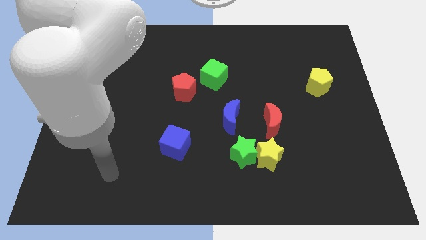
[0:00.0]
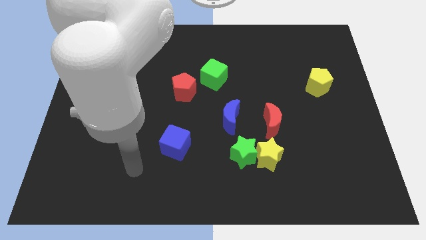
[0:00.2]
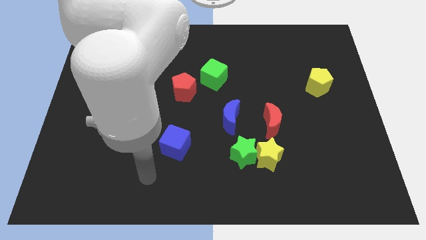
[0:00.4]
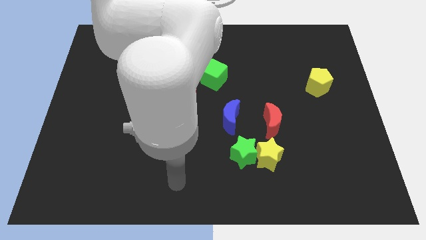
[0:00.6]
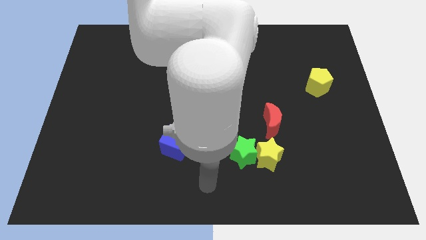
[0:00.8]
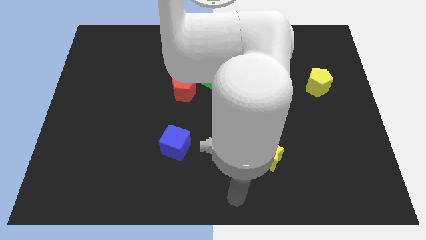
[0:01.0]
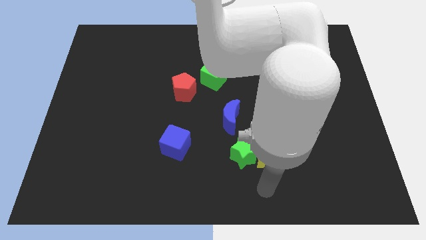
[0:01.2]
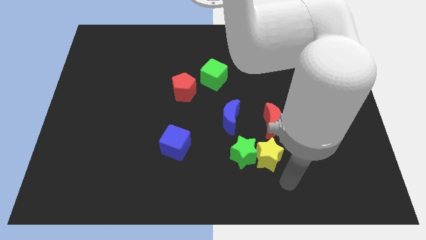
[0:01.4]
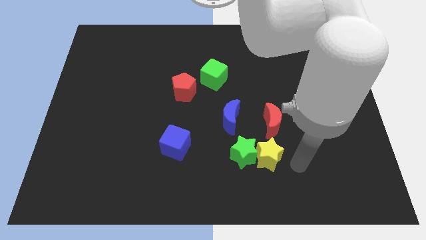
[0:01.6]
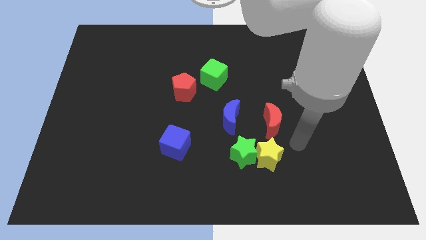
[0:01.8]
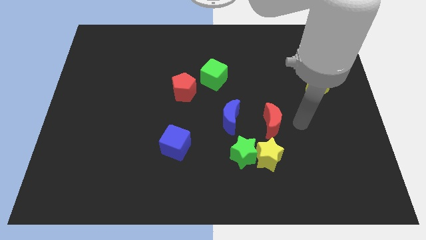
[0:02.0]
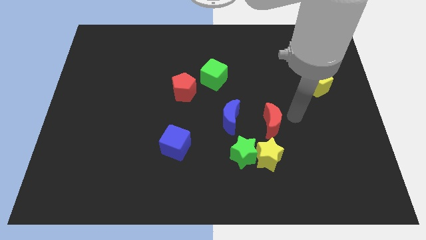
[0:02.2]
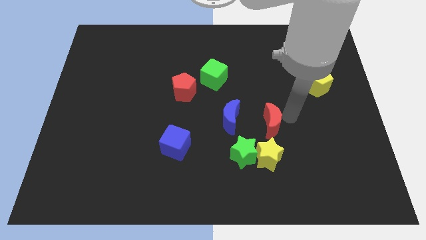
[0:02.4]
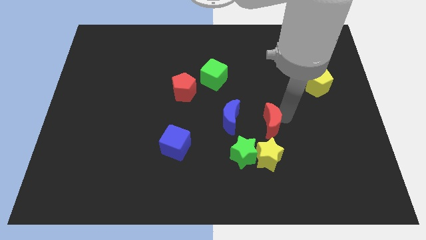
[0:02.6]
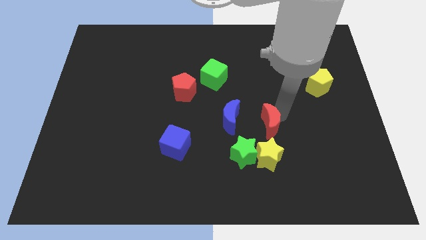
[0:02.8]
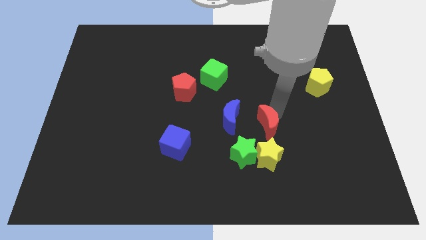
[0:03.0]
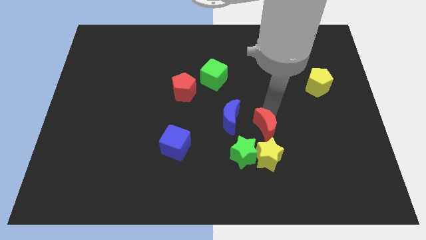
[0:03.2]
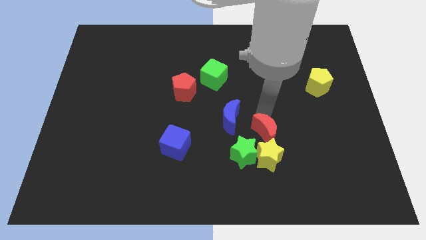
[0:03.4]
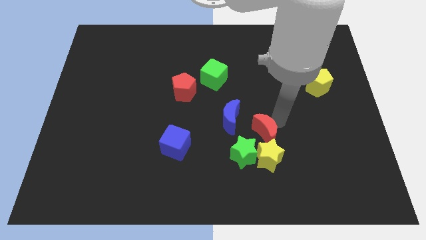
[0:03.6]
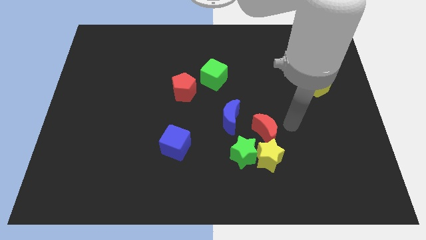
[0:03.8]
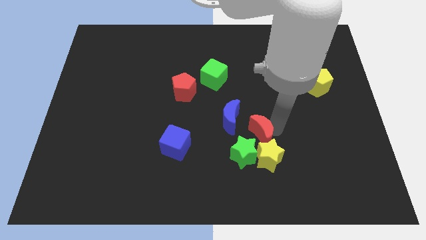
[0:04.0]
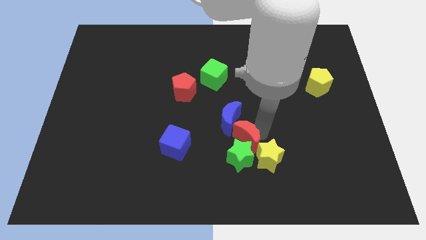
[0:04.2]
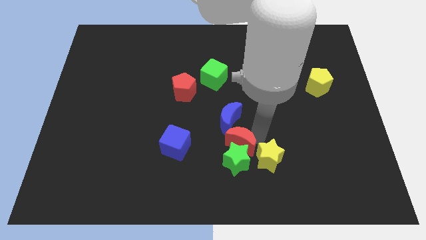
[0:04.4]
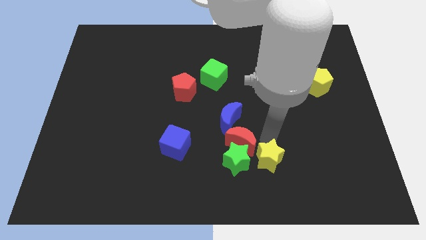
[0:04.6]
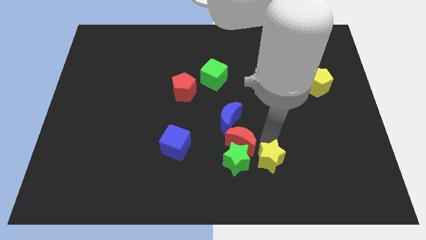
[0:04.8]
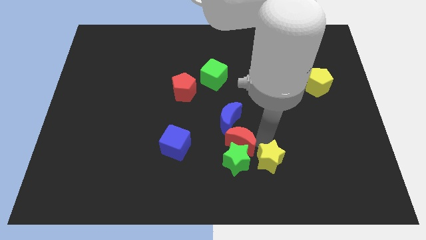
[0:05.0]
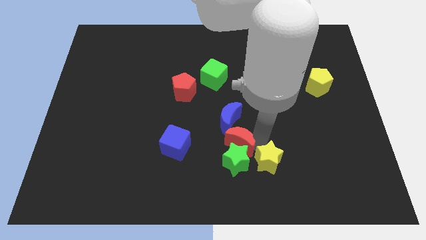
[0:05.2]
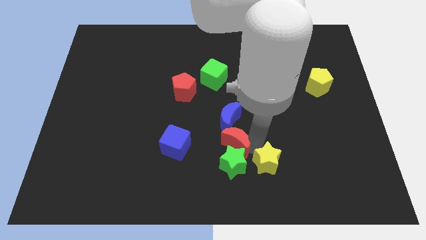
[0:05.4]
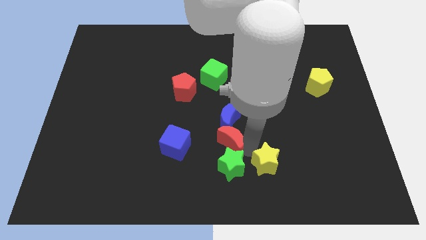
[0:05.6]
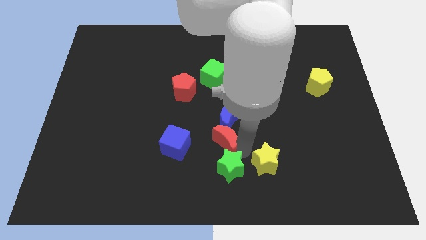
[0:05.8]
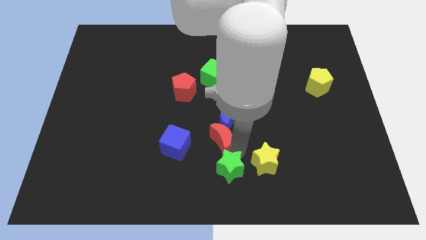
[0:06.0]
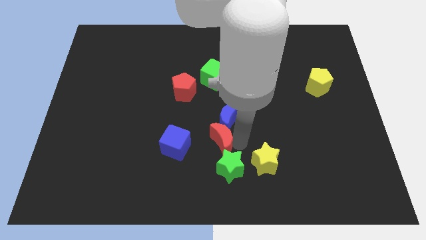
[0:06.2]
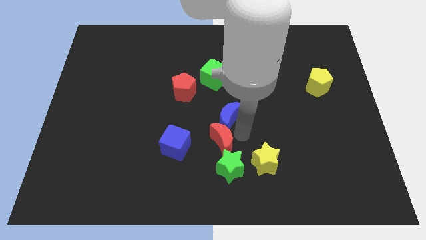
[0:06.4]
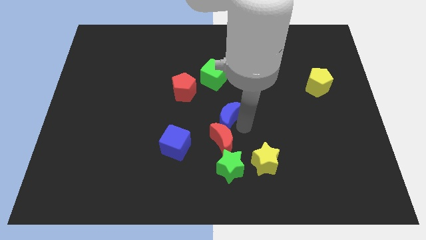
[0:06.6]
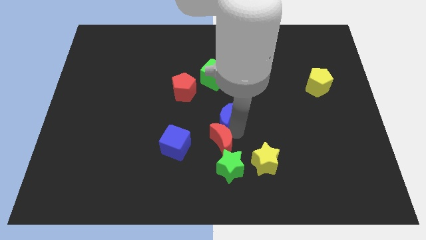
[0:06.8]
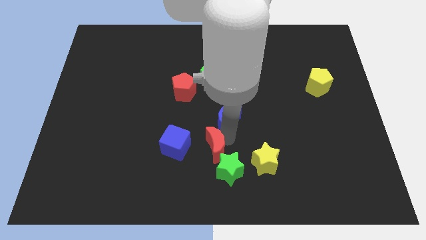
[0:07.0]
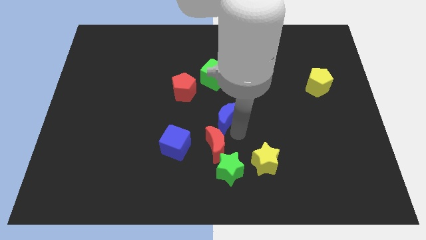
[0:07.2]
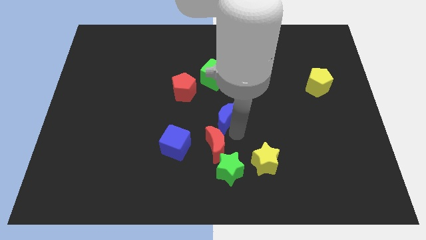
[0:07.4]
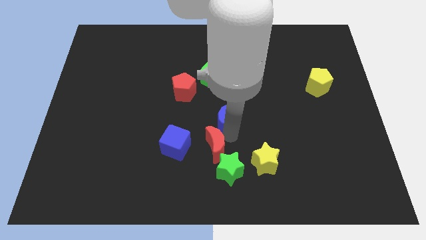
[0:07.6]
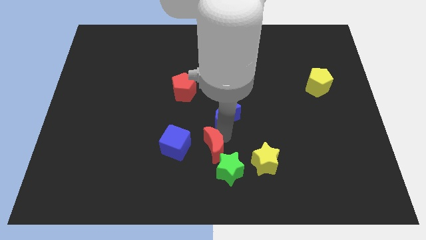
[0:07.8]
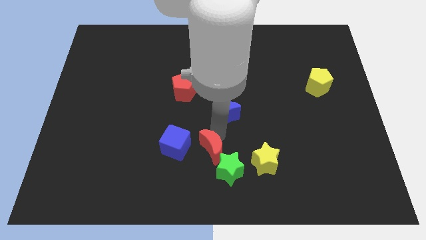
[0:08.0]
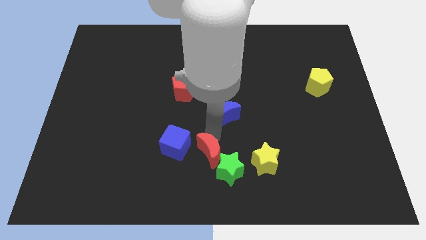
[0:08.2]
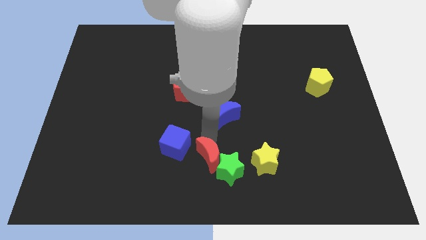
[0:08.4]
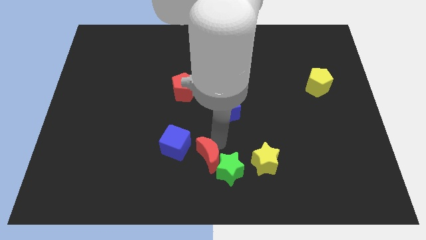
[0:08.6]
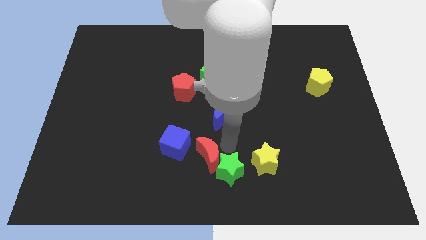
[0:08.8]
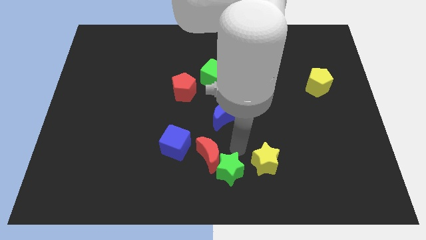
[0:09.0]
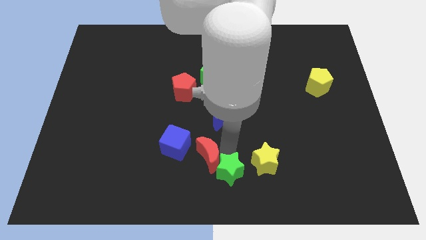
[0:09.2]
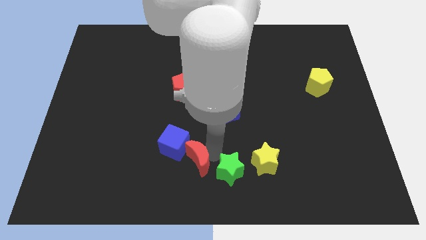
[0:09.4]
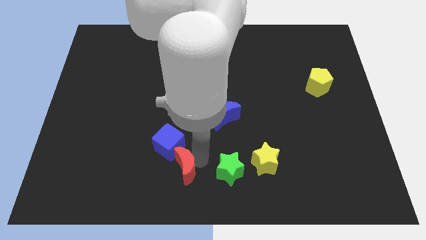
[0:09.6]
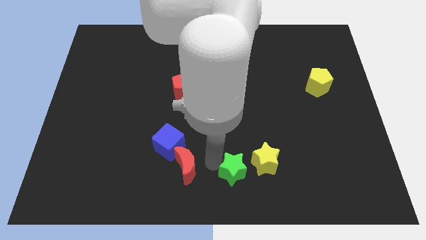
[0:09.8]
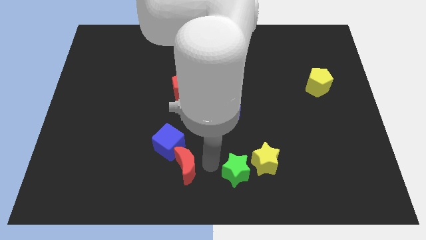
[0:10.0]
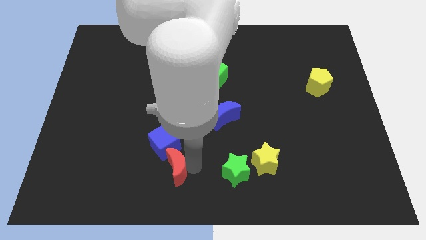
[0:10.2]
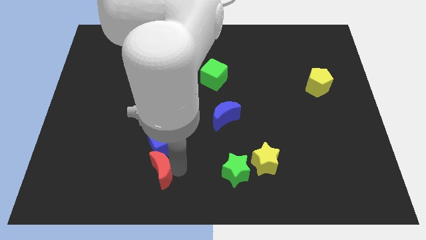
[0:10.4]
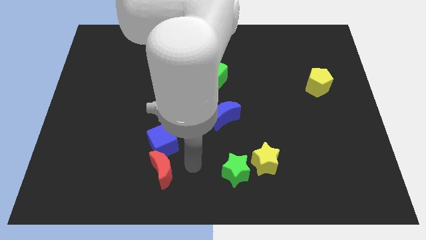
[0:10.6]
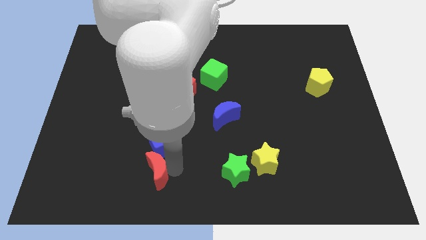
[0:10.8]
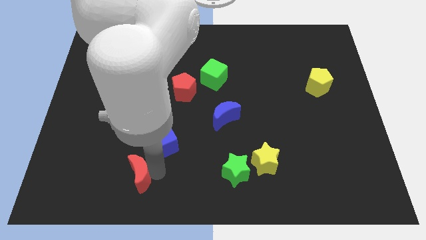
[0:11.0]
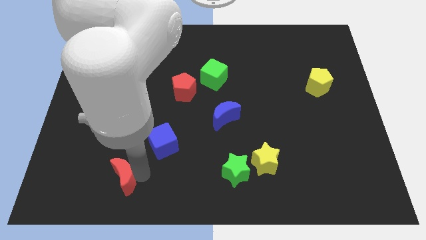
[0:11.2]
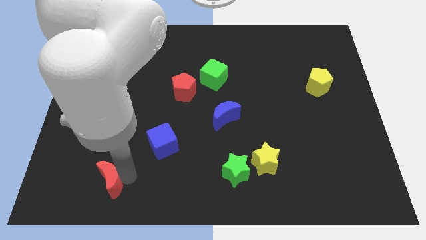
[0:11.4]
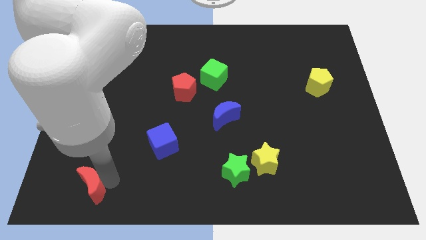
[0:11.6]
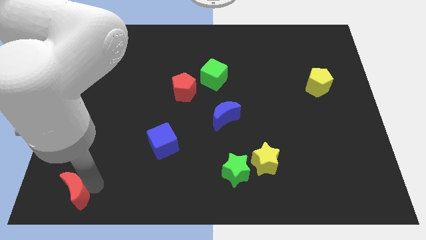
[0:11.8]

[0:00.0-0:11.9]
move the red moon to the lower left corner
